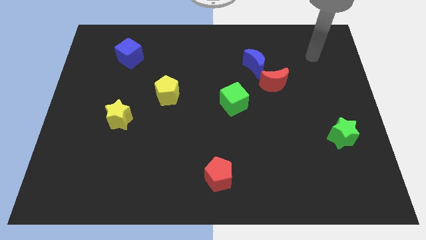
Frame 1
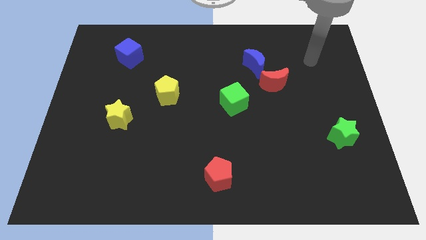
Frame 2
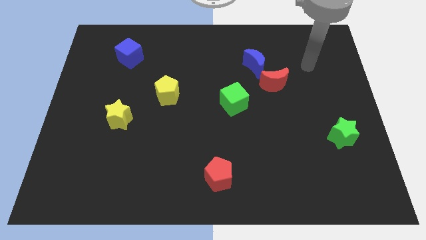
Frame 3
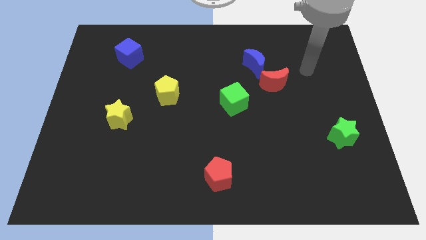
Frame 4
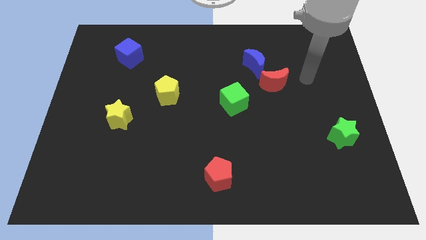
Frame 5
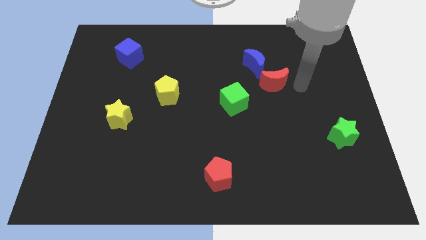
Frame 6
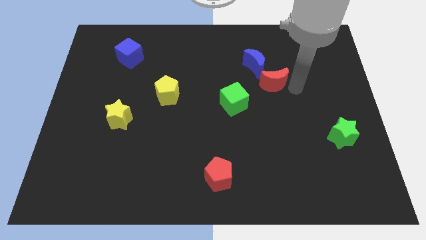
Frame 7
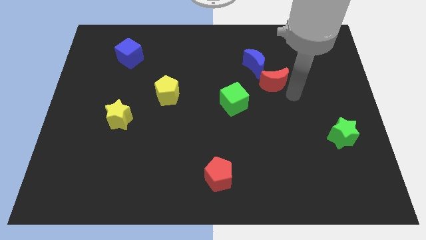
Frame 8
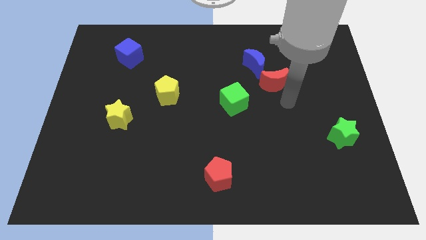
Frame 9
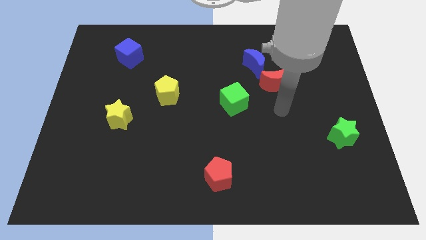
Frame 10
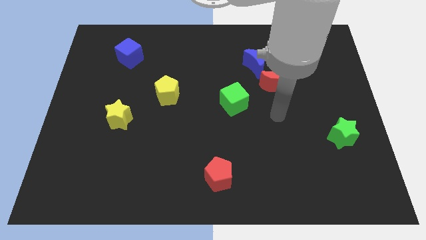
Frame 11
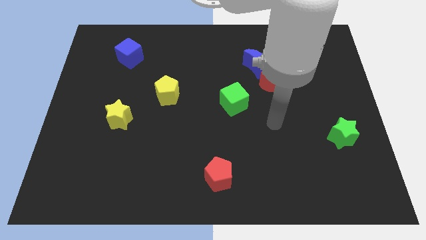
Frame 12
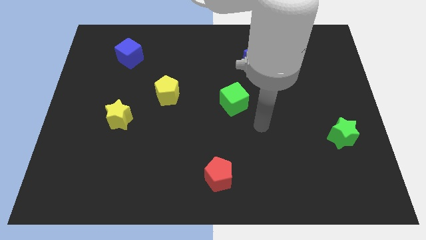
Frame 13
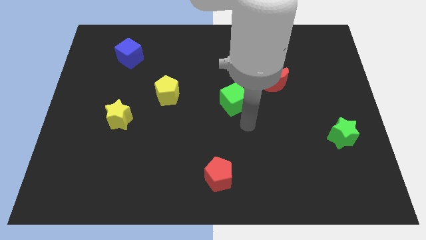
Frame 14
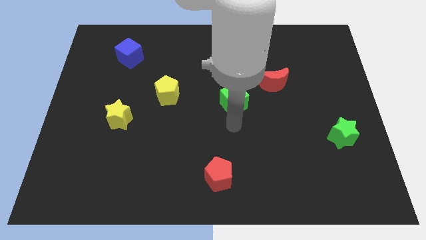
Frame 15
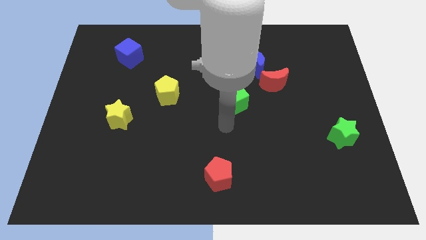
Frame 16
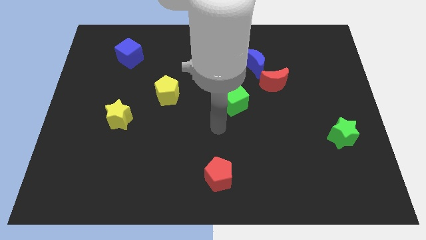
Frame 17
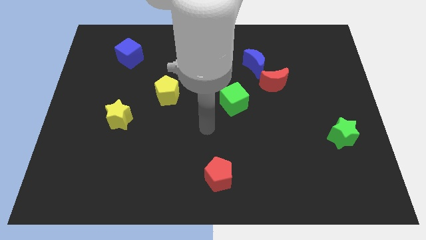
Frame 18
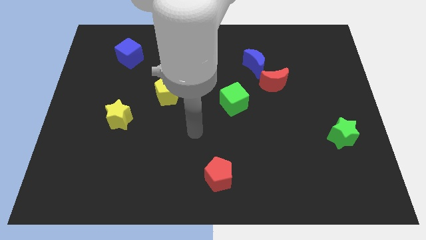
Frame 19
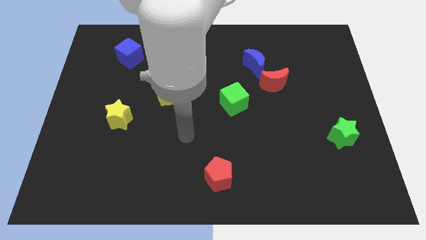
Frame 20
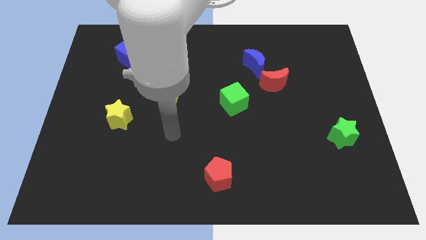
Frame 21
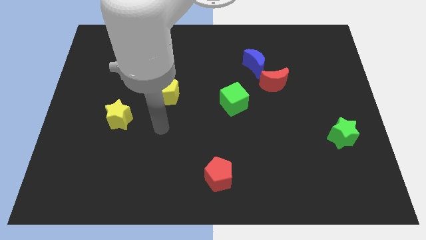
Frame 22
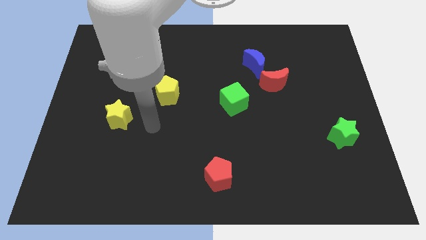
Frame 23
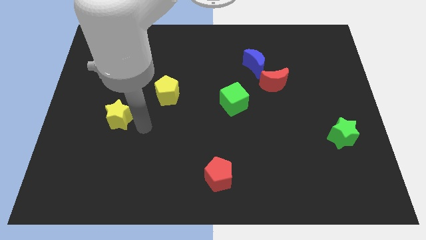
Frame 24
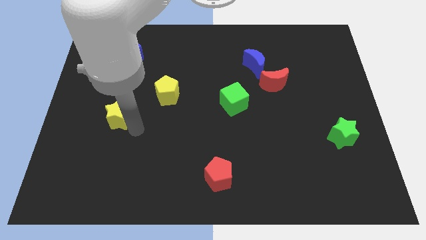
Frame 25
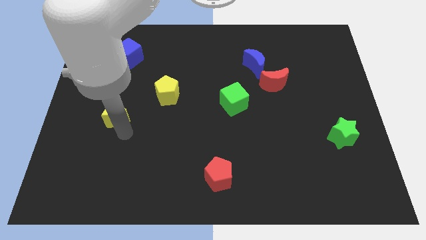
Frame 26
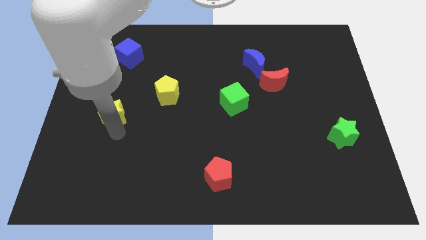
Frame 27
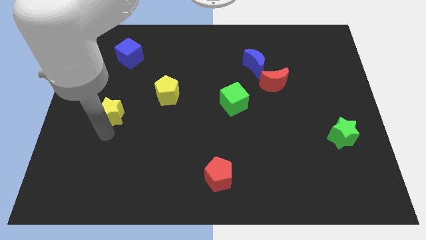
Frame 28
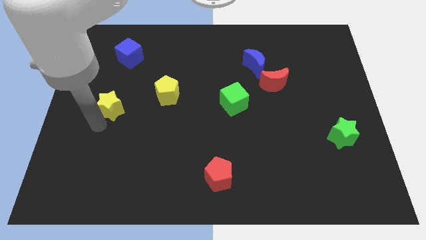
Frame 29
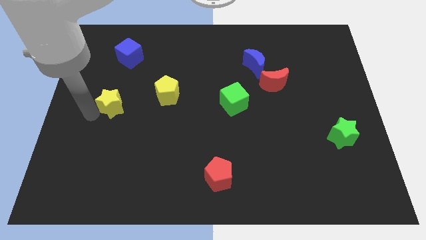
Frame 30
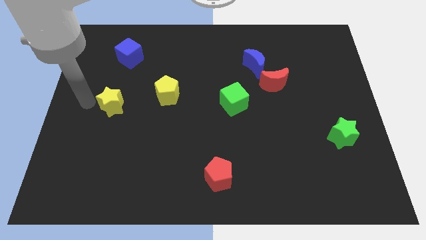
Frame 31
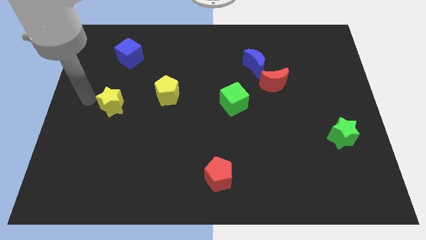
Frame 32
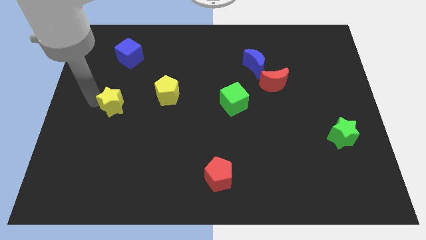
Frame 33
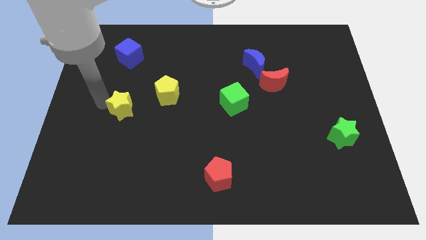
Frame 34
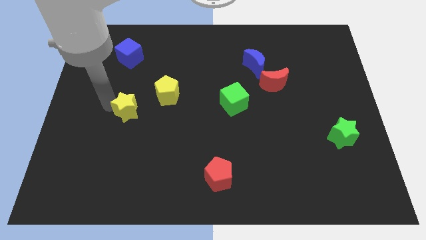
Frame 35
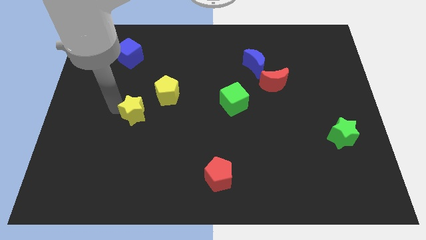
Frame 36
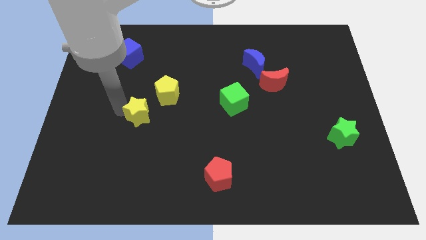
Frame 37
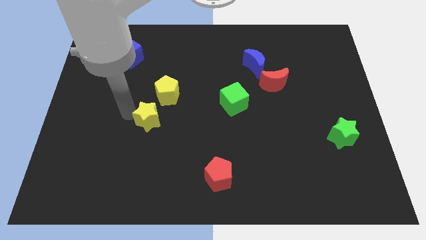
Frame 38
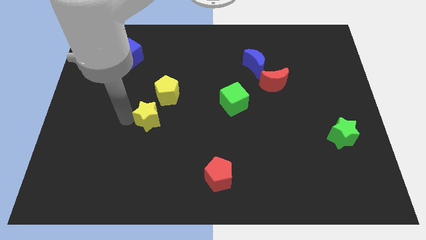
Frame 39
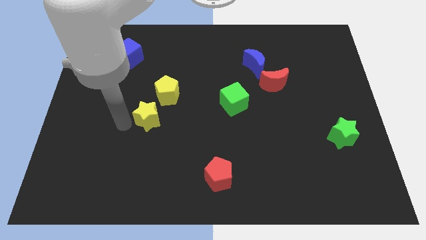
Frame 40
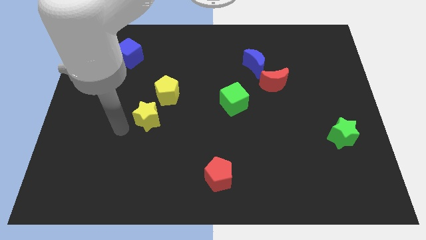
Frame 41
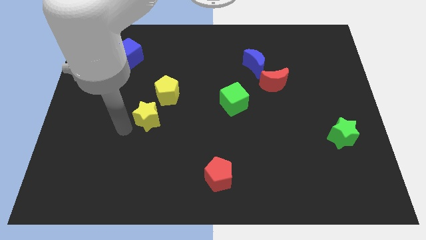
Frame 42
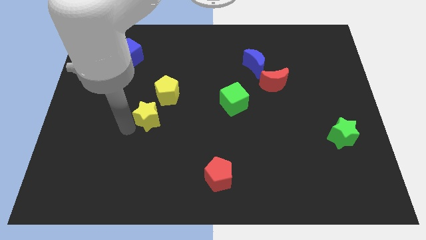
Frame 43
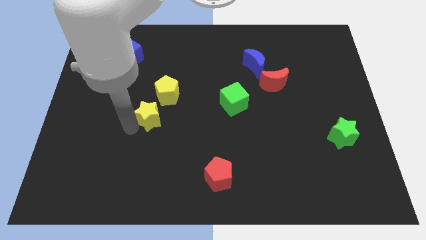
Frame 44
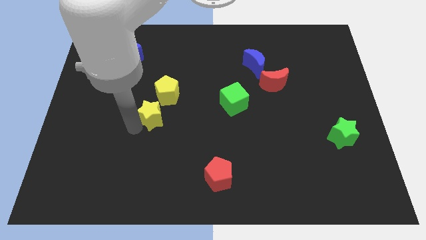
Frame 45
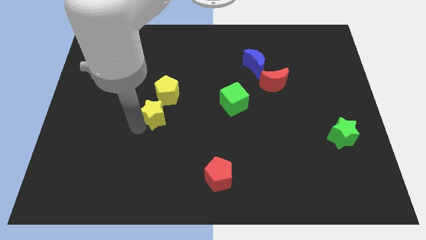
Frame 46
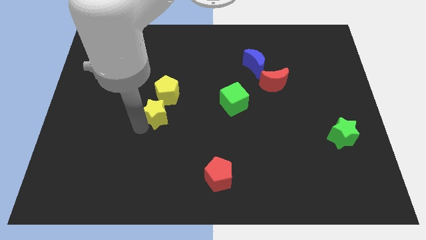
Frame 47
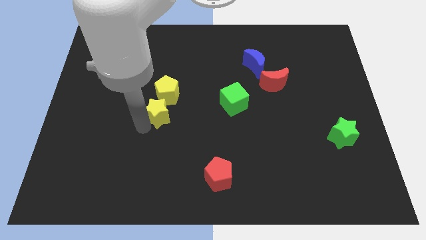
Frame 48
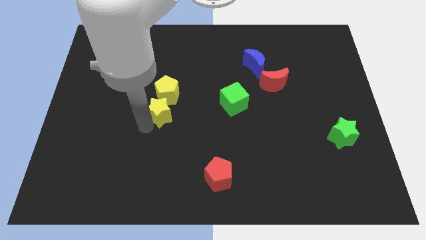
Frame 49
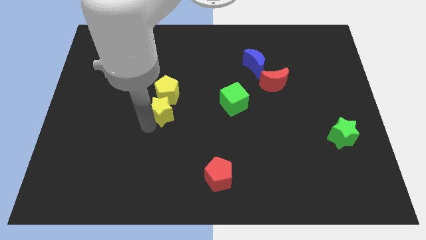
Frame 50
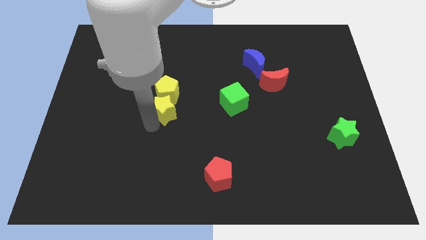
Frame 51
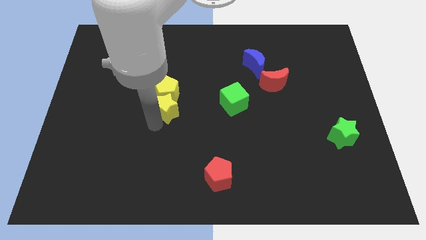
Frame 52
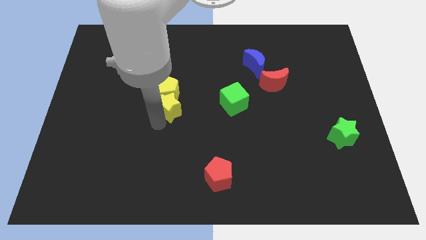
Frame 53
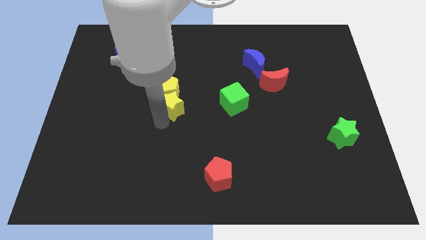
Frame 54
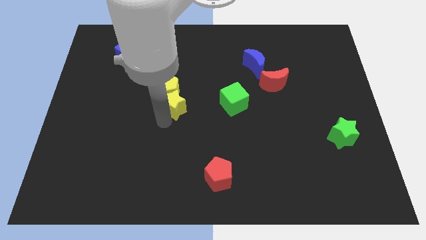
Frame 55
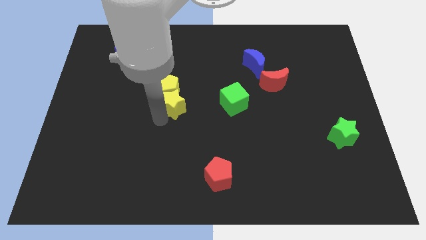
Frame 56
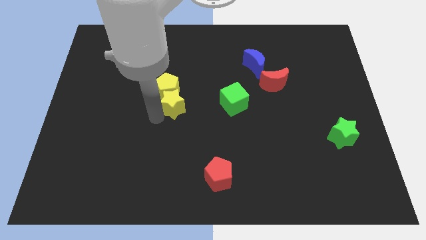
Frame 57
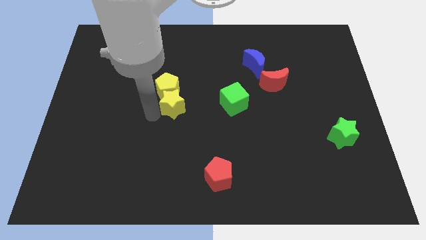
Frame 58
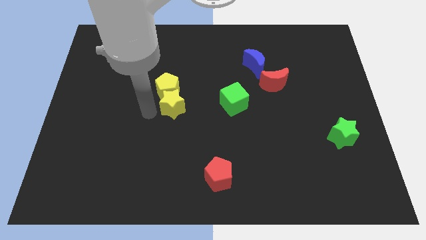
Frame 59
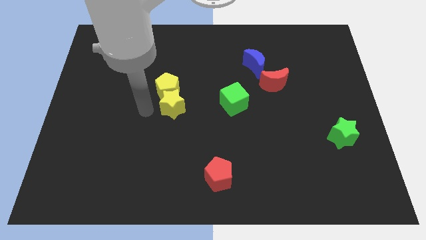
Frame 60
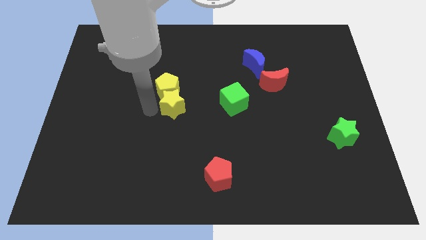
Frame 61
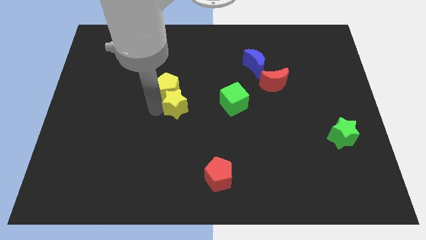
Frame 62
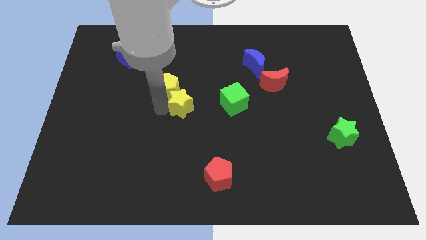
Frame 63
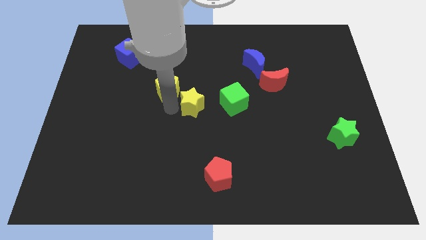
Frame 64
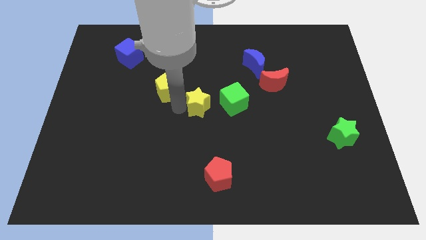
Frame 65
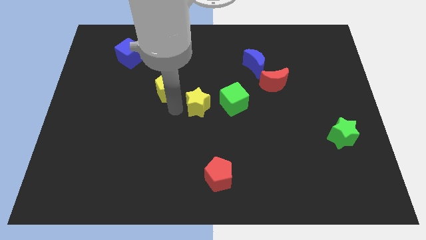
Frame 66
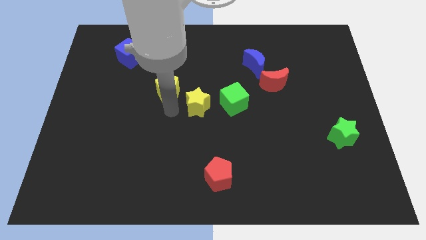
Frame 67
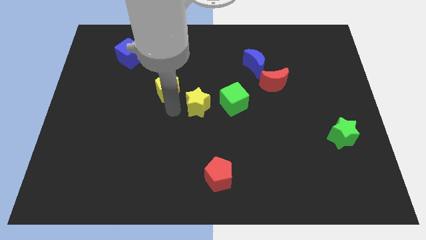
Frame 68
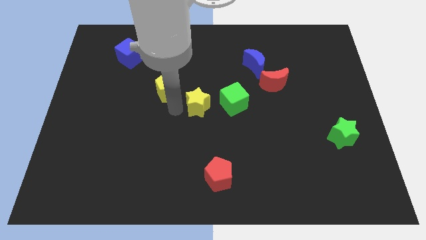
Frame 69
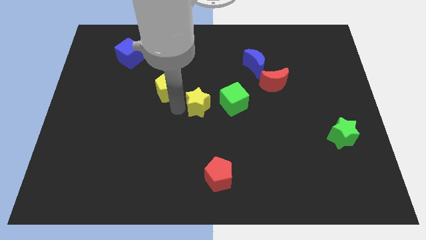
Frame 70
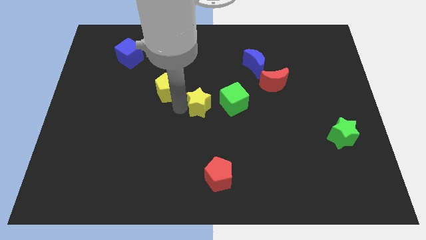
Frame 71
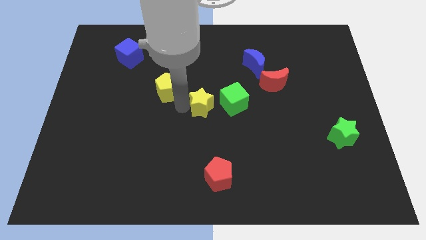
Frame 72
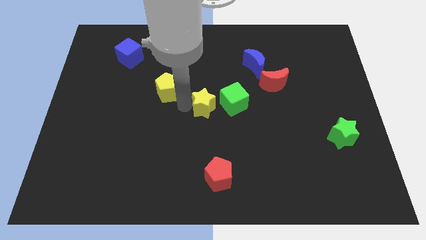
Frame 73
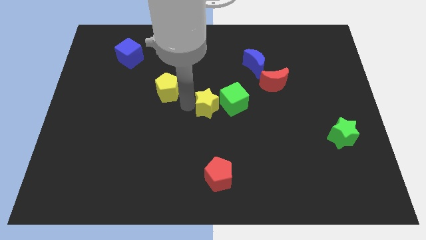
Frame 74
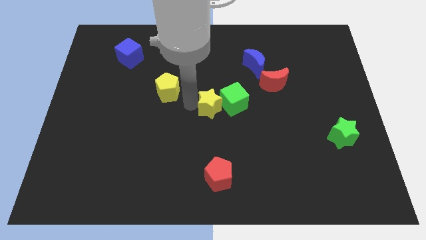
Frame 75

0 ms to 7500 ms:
slide the yellow star next to the green cube
